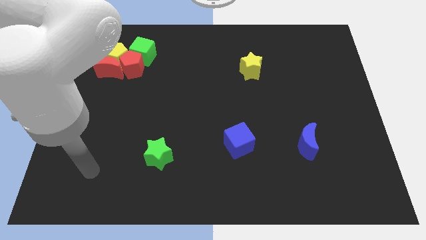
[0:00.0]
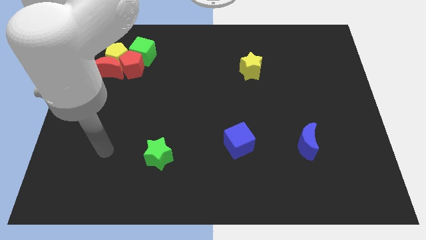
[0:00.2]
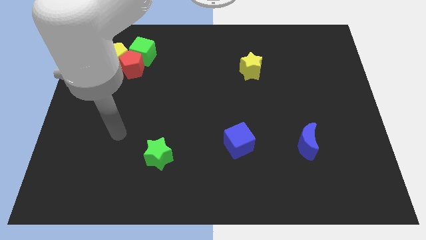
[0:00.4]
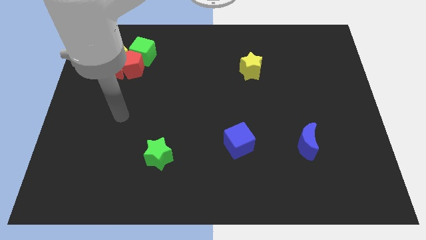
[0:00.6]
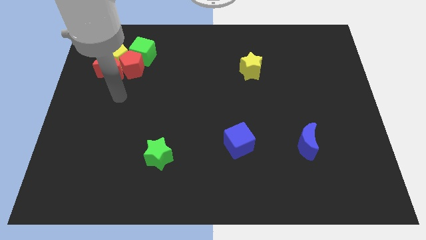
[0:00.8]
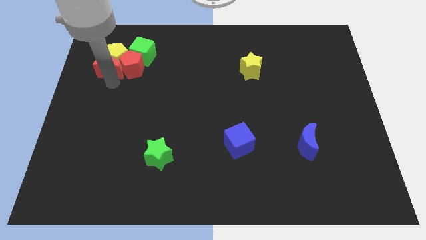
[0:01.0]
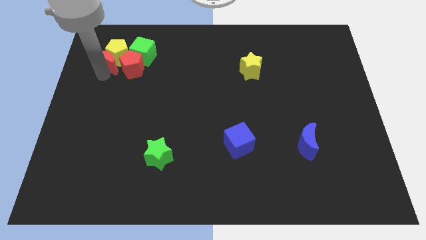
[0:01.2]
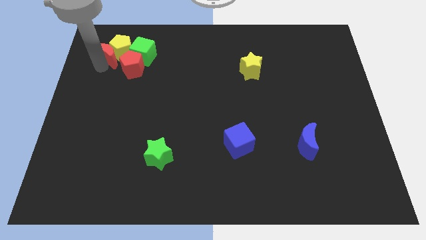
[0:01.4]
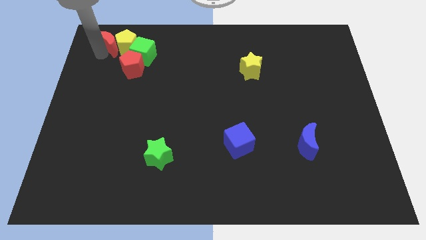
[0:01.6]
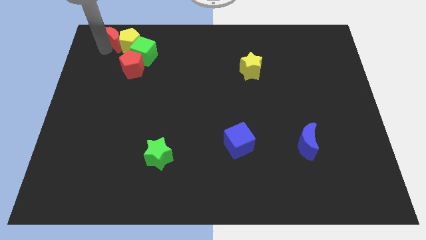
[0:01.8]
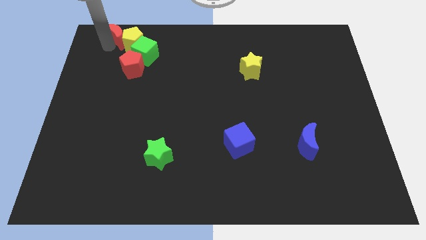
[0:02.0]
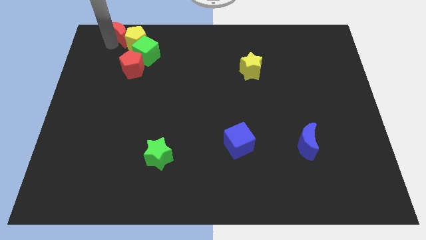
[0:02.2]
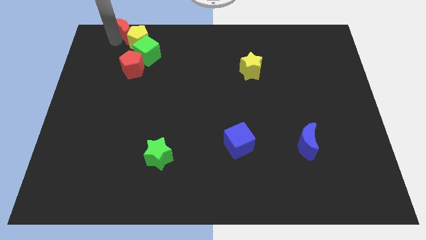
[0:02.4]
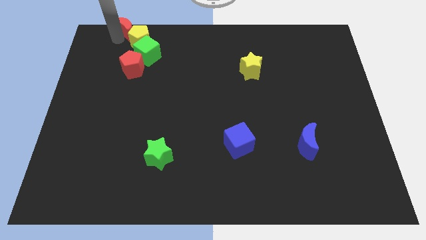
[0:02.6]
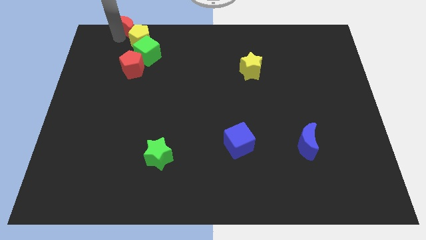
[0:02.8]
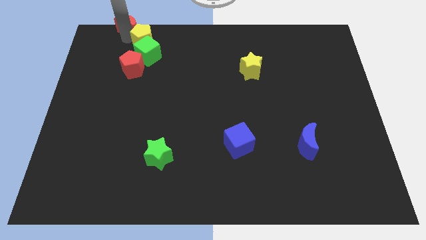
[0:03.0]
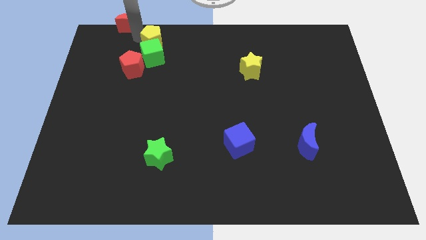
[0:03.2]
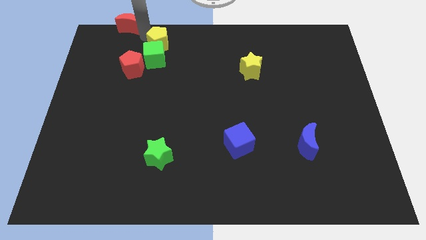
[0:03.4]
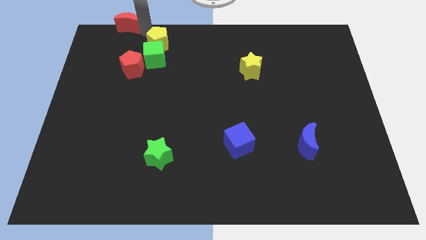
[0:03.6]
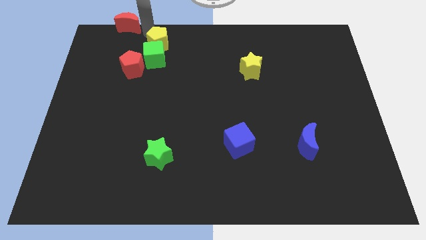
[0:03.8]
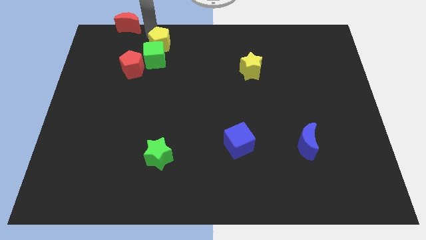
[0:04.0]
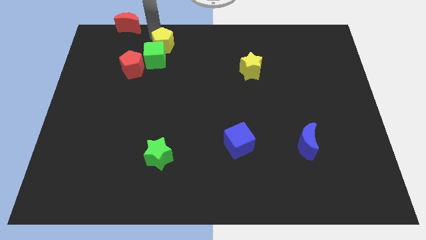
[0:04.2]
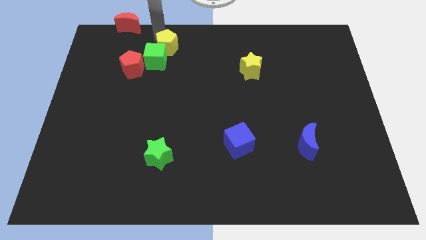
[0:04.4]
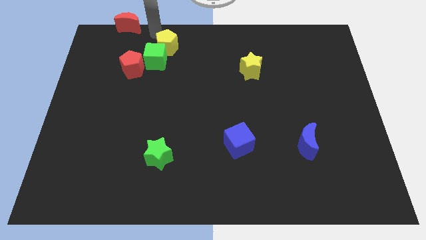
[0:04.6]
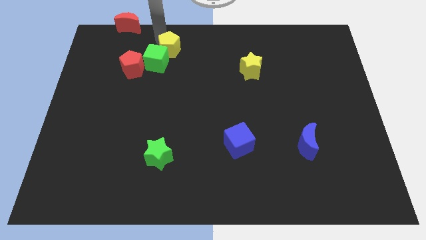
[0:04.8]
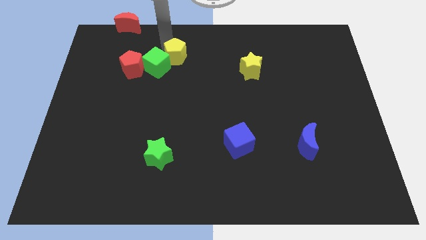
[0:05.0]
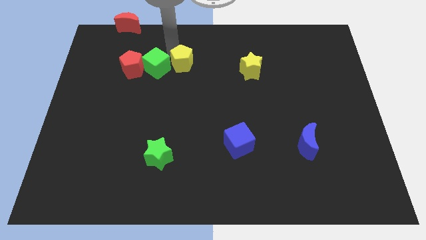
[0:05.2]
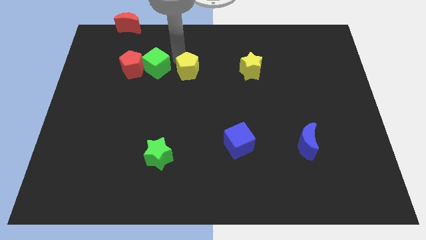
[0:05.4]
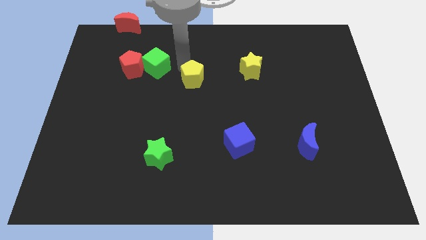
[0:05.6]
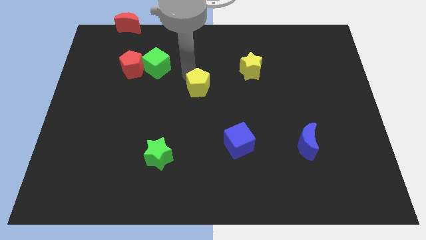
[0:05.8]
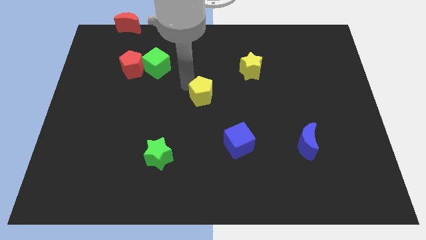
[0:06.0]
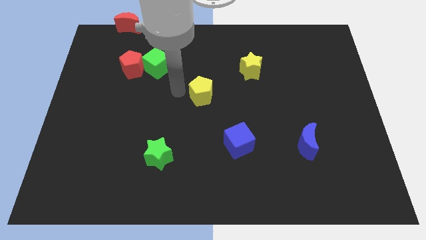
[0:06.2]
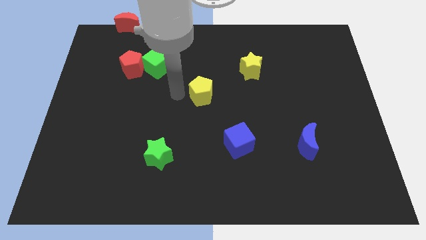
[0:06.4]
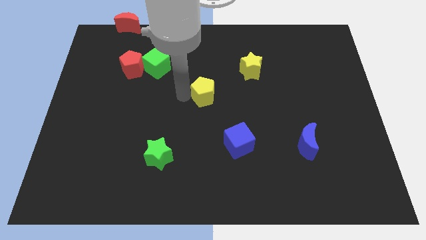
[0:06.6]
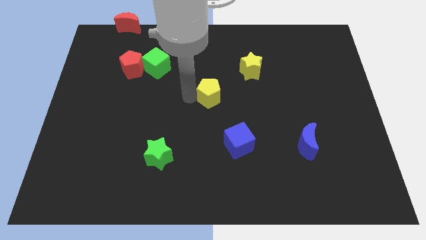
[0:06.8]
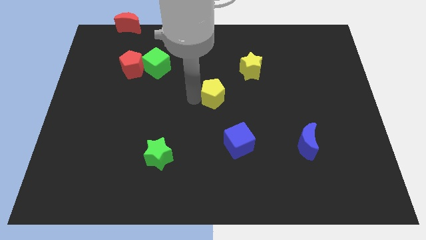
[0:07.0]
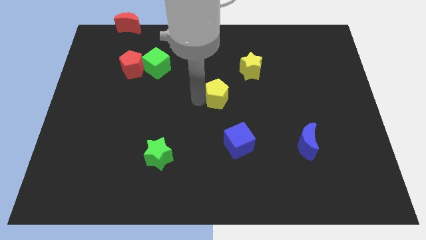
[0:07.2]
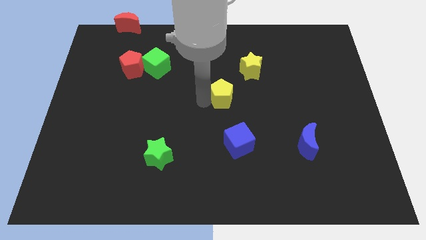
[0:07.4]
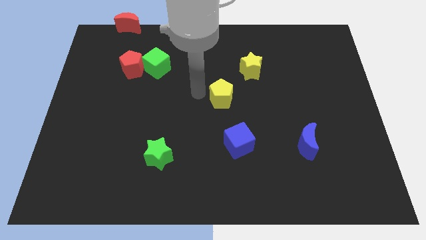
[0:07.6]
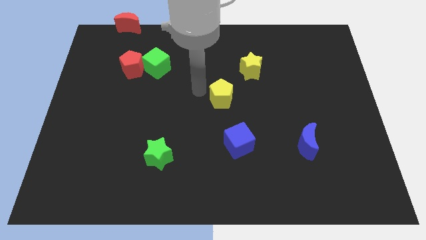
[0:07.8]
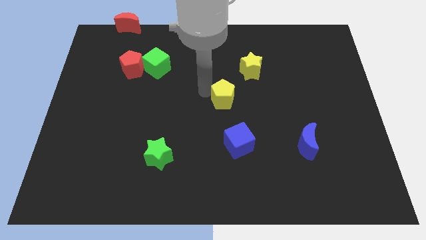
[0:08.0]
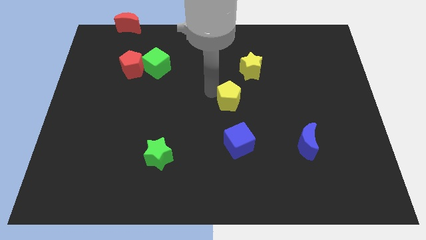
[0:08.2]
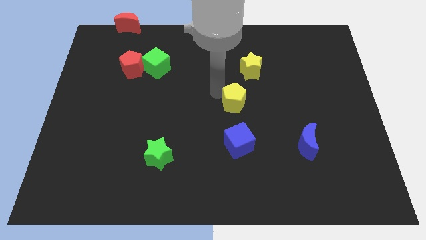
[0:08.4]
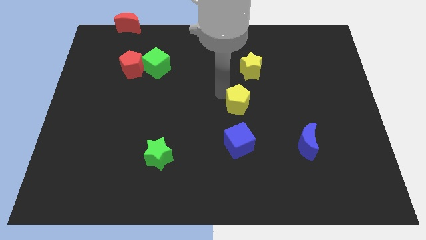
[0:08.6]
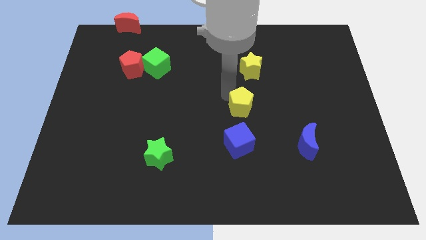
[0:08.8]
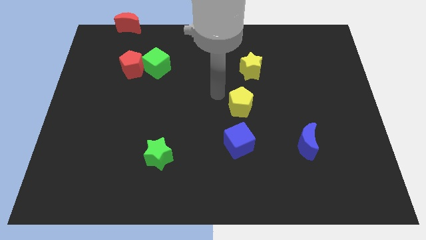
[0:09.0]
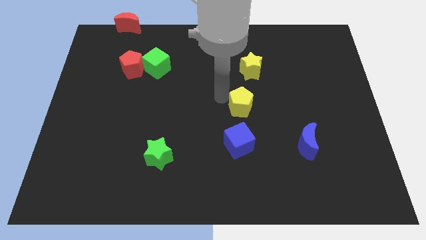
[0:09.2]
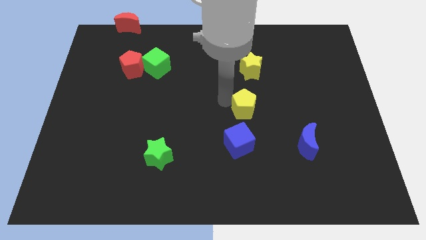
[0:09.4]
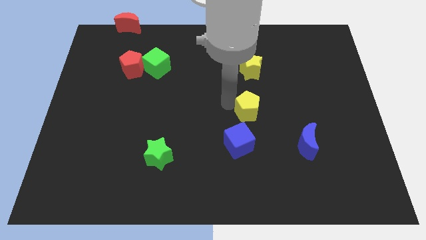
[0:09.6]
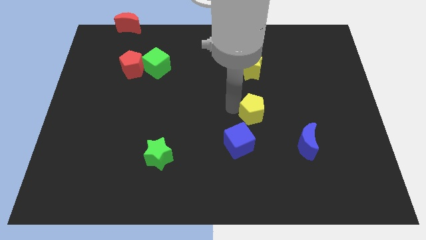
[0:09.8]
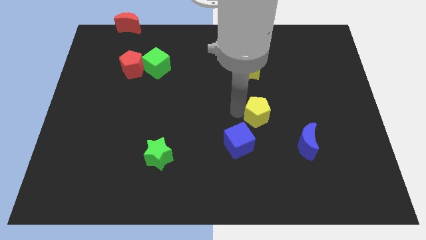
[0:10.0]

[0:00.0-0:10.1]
move the yellow pentagon to the top left side of the blue moon

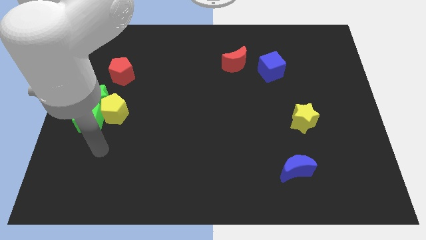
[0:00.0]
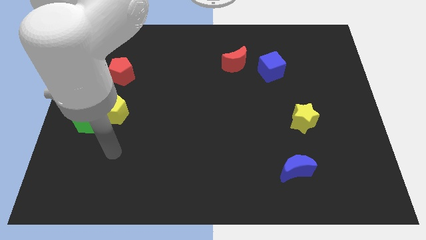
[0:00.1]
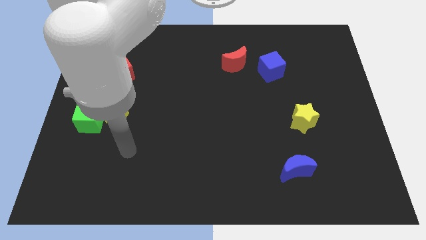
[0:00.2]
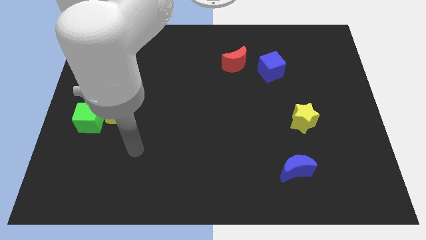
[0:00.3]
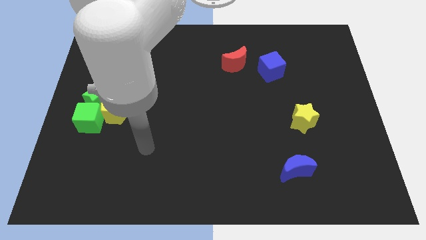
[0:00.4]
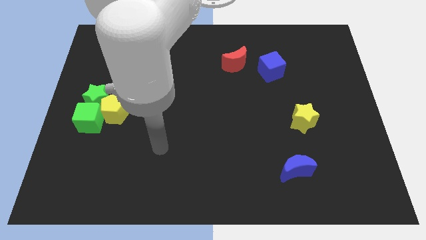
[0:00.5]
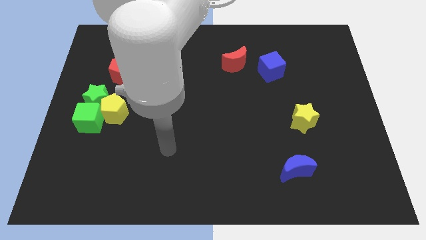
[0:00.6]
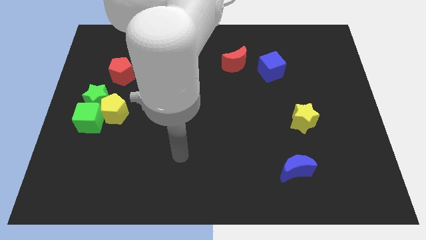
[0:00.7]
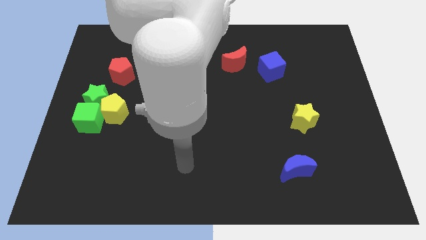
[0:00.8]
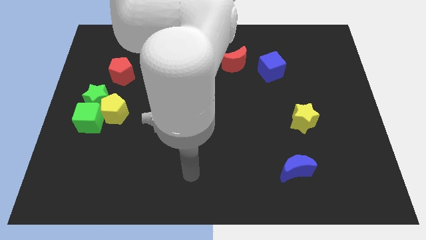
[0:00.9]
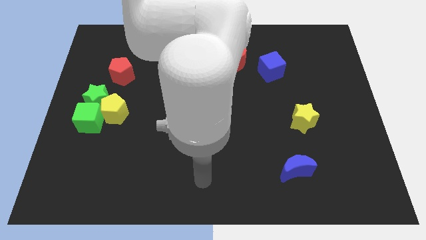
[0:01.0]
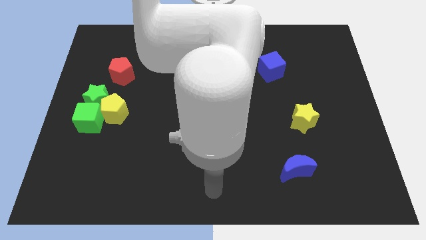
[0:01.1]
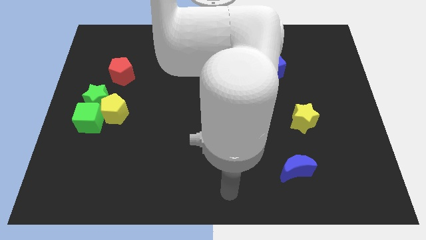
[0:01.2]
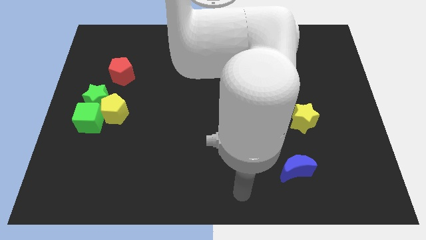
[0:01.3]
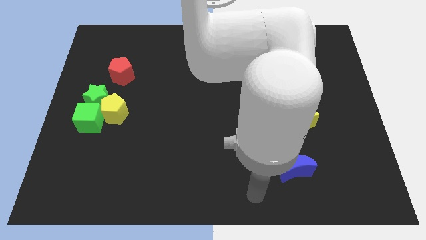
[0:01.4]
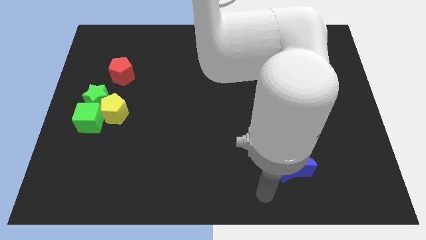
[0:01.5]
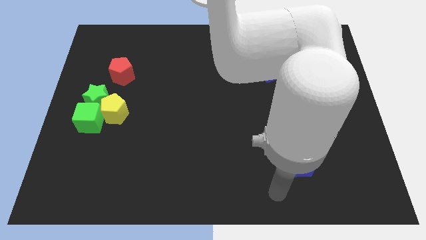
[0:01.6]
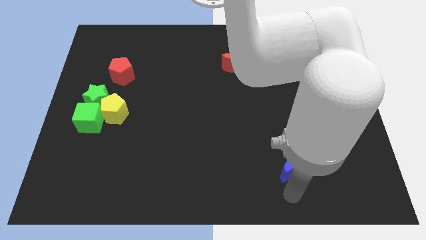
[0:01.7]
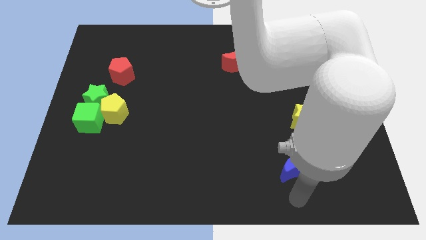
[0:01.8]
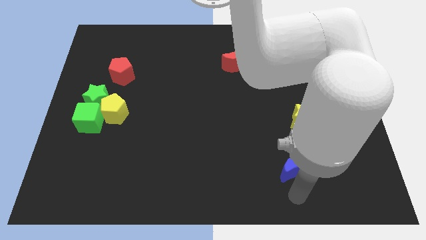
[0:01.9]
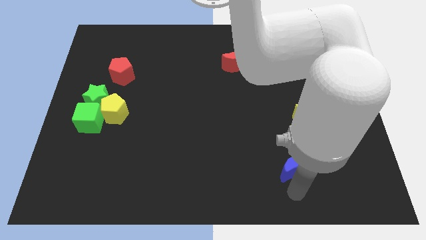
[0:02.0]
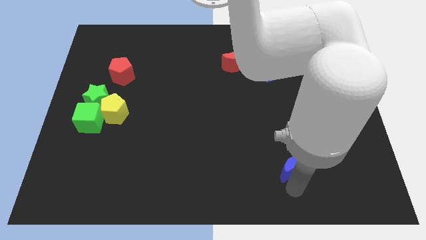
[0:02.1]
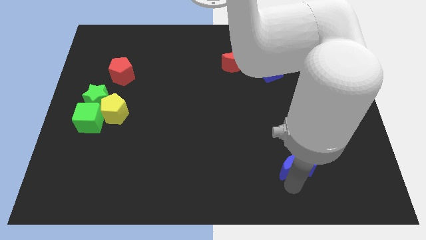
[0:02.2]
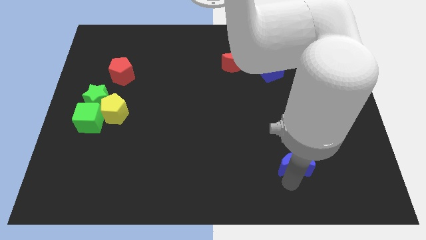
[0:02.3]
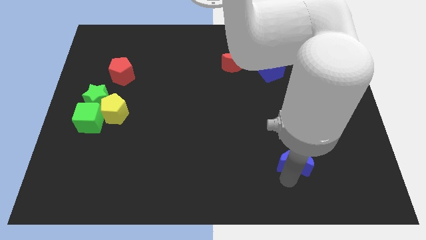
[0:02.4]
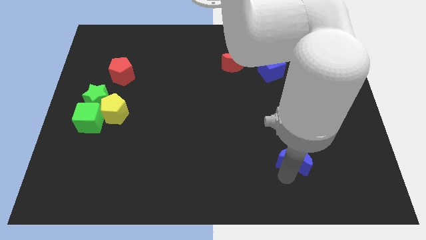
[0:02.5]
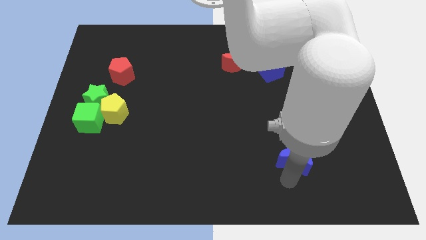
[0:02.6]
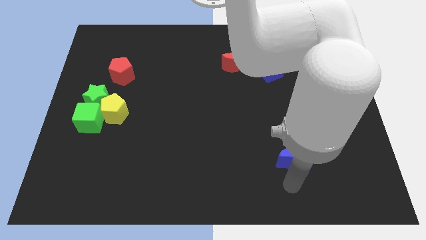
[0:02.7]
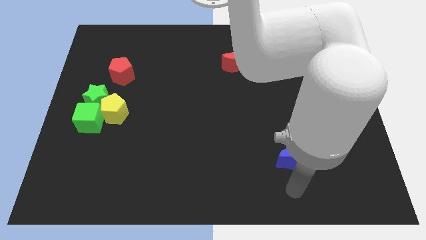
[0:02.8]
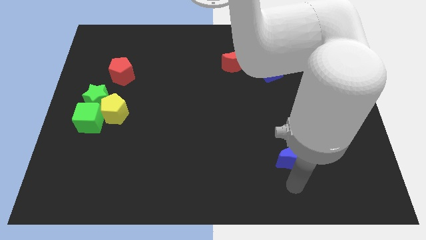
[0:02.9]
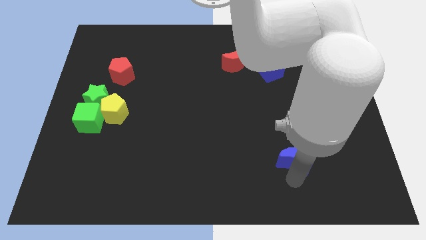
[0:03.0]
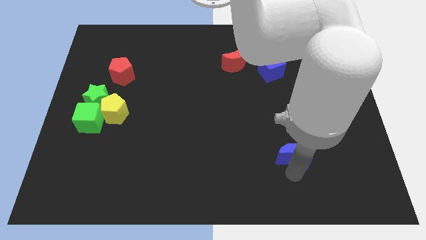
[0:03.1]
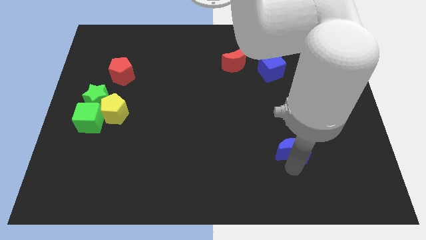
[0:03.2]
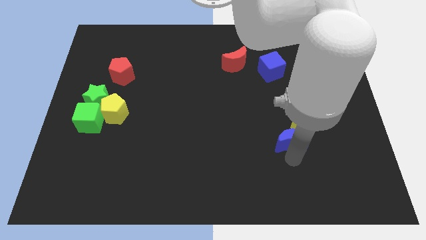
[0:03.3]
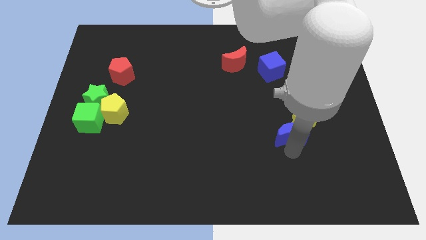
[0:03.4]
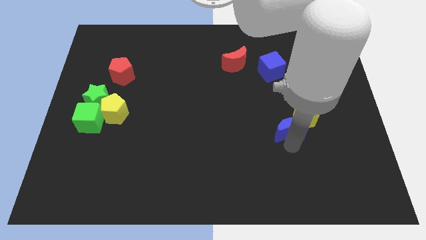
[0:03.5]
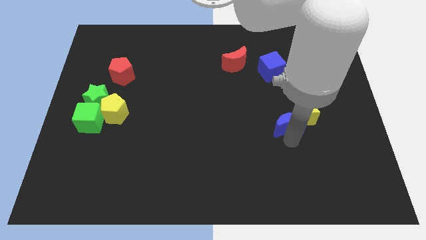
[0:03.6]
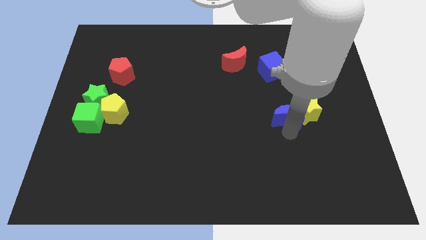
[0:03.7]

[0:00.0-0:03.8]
push the blue moon to the top left side of the yellow star
